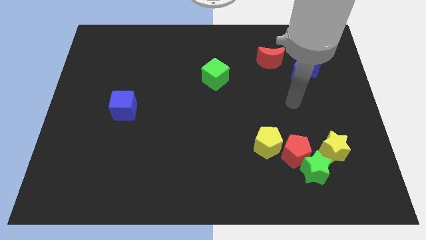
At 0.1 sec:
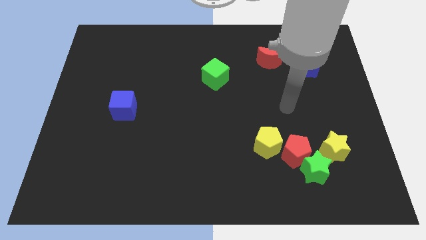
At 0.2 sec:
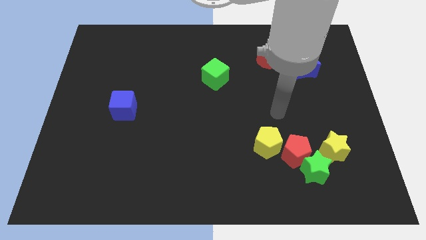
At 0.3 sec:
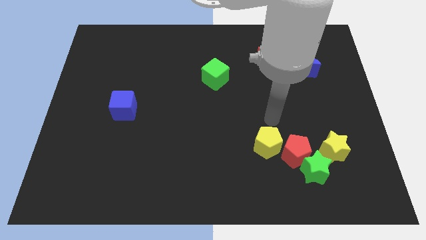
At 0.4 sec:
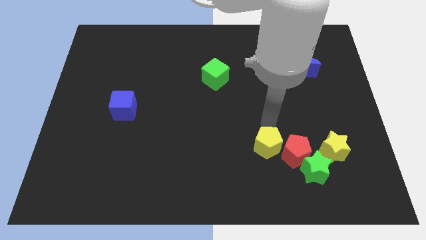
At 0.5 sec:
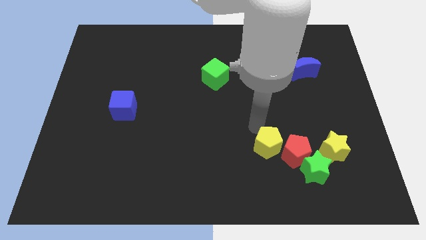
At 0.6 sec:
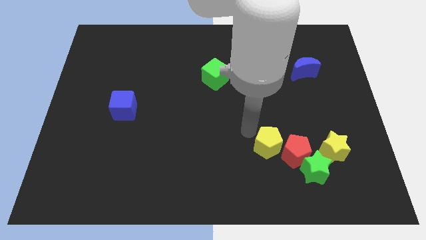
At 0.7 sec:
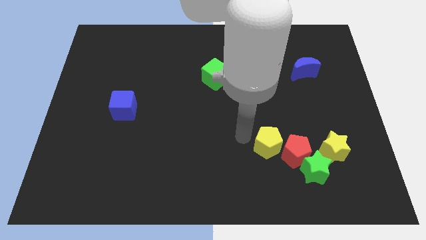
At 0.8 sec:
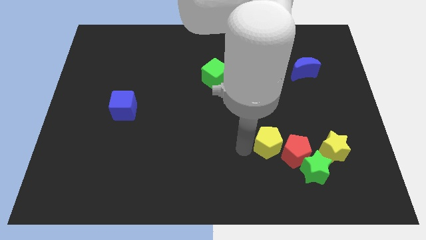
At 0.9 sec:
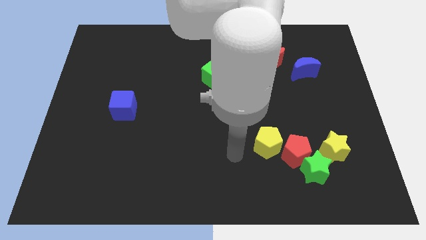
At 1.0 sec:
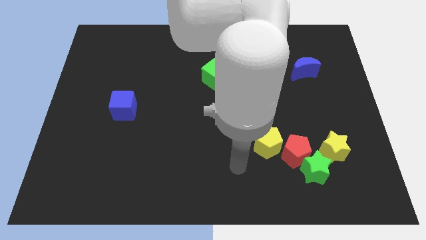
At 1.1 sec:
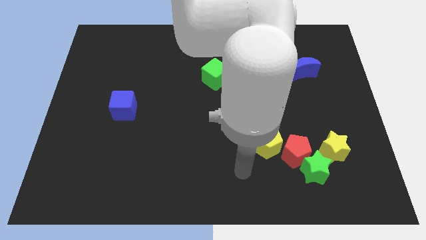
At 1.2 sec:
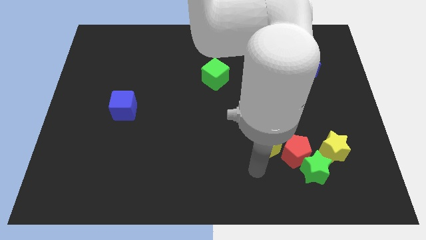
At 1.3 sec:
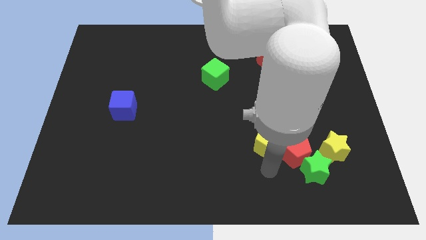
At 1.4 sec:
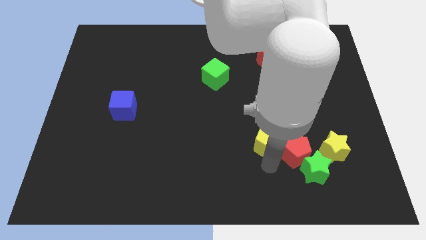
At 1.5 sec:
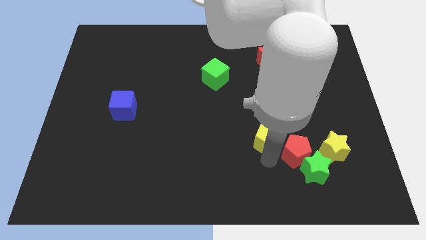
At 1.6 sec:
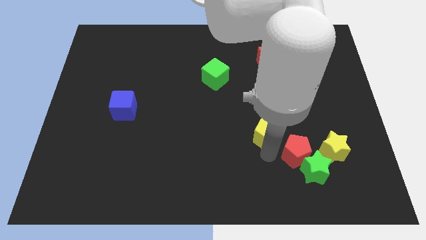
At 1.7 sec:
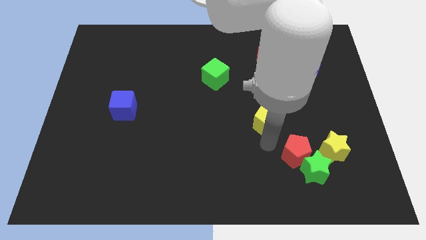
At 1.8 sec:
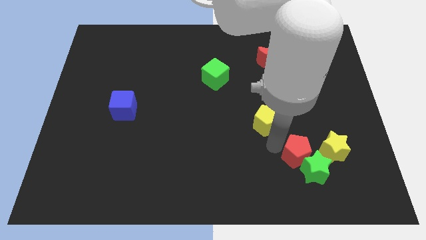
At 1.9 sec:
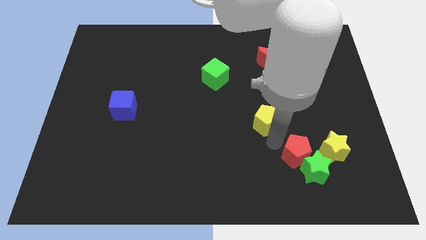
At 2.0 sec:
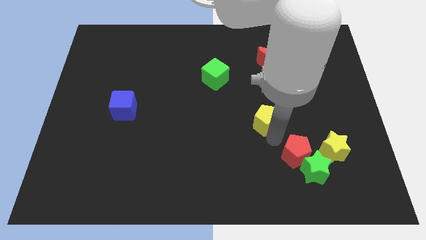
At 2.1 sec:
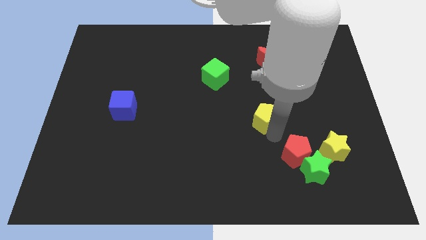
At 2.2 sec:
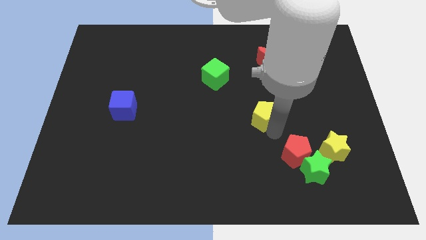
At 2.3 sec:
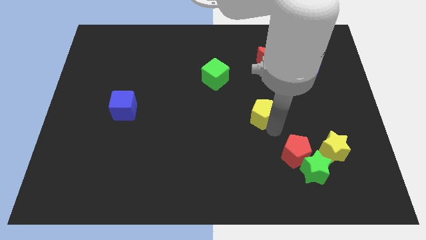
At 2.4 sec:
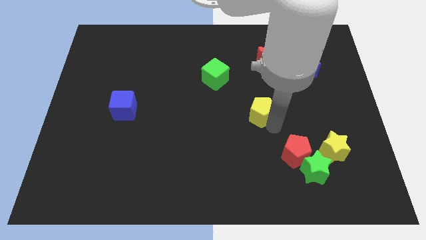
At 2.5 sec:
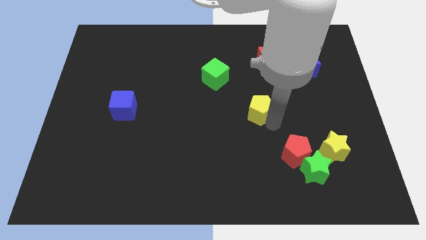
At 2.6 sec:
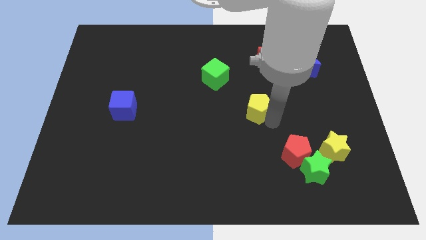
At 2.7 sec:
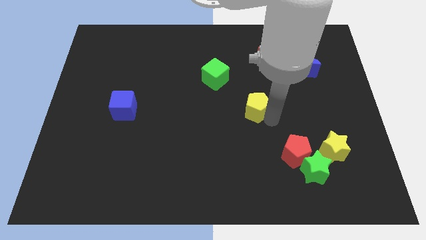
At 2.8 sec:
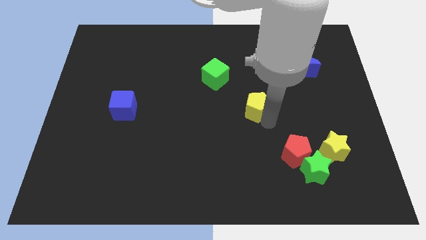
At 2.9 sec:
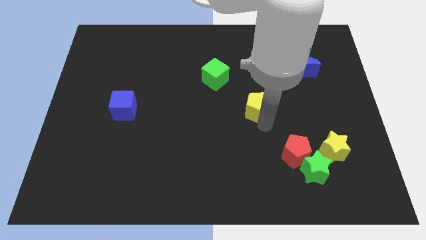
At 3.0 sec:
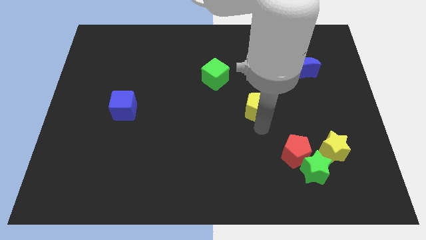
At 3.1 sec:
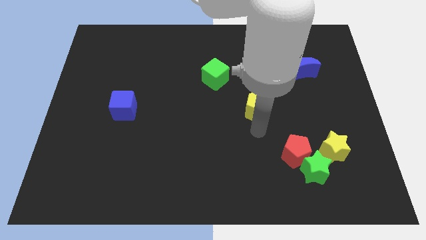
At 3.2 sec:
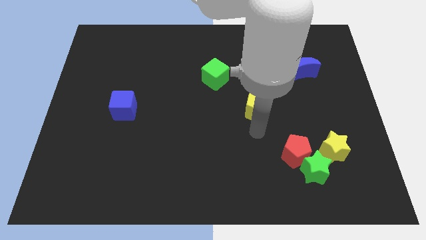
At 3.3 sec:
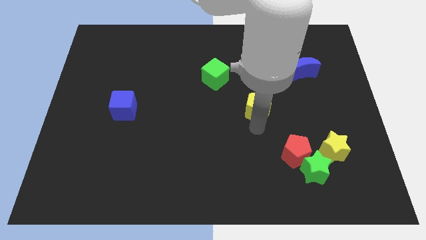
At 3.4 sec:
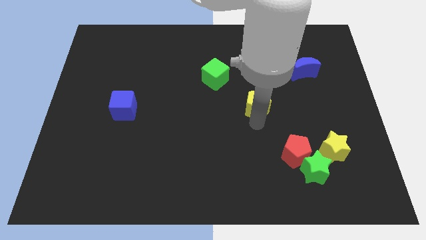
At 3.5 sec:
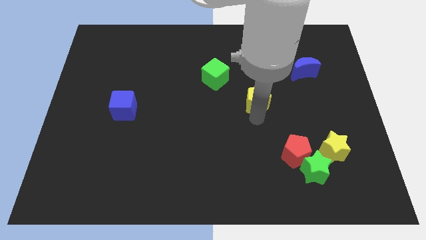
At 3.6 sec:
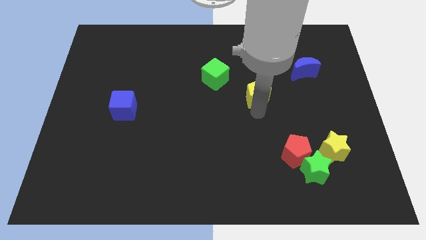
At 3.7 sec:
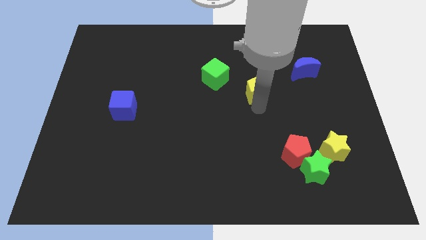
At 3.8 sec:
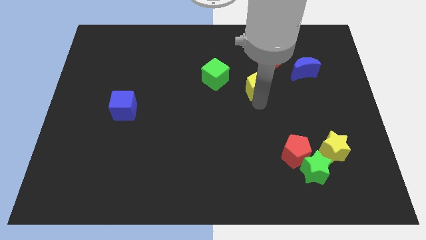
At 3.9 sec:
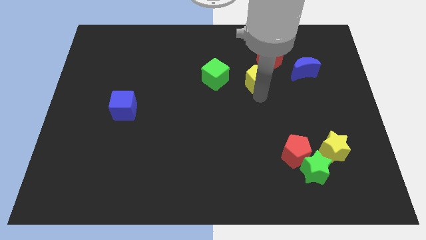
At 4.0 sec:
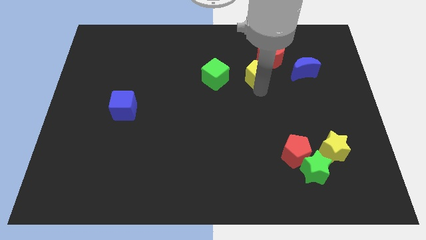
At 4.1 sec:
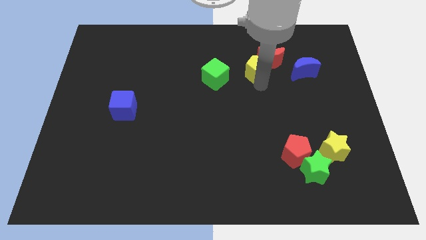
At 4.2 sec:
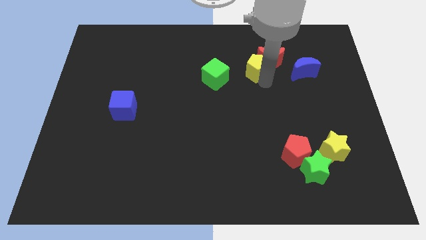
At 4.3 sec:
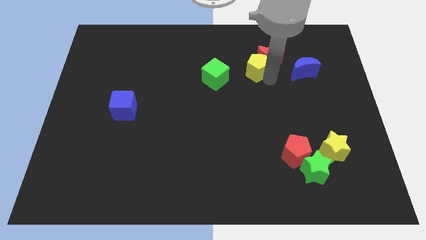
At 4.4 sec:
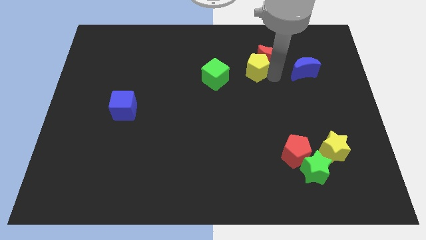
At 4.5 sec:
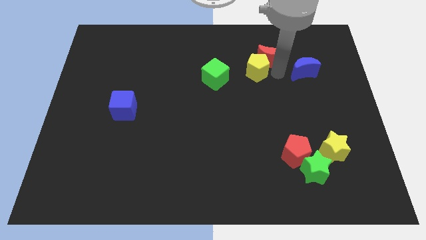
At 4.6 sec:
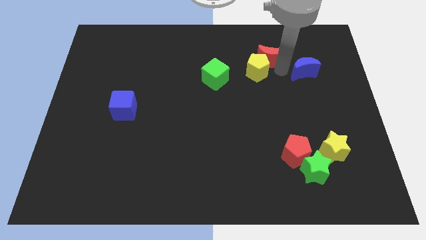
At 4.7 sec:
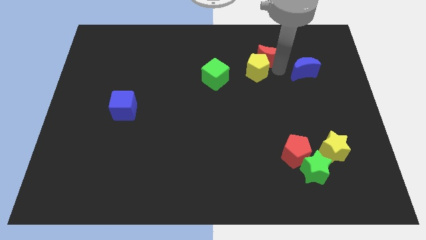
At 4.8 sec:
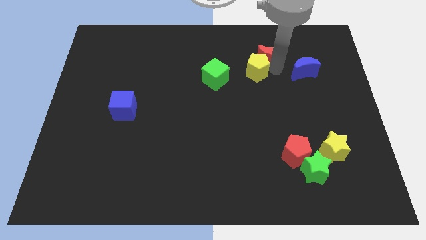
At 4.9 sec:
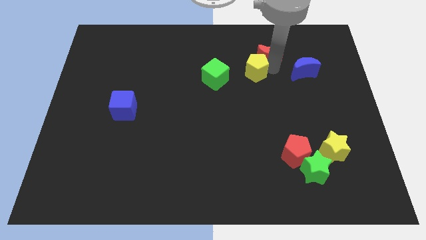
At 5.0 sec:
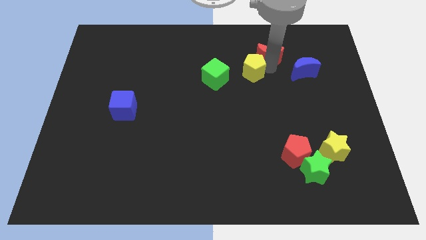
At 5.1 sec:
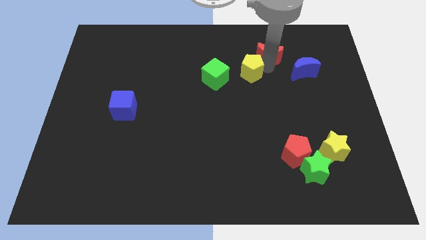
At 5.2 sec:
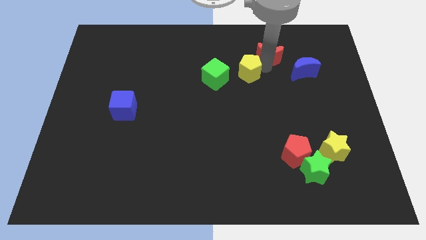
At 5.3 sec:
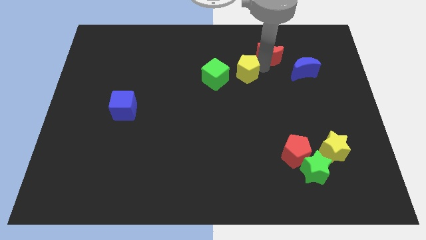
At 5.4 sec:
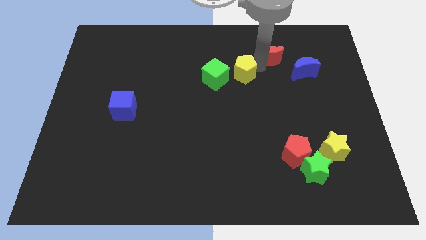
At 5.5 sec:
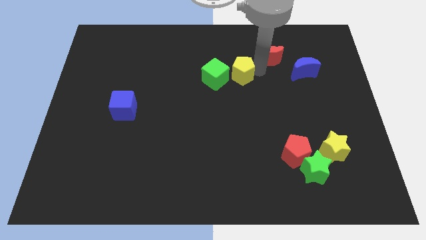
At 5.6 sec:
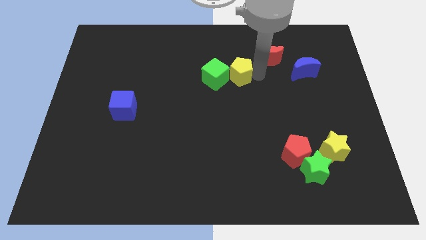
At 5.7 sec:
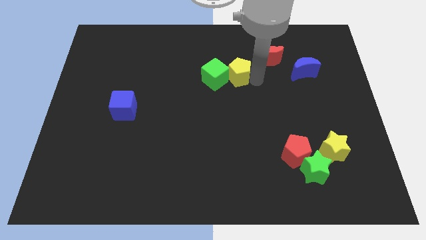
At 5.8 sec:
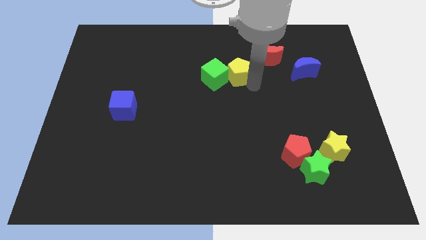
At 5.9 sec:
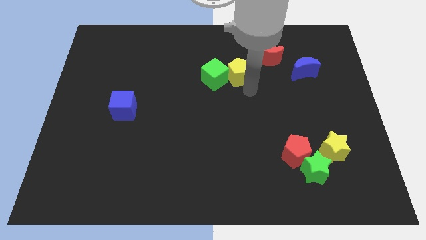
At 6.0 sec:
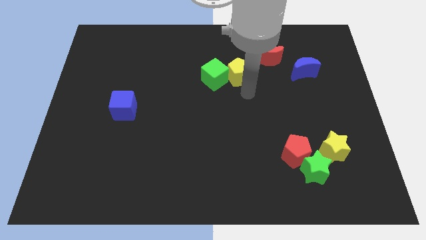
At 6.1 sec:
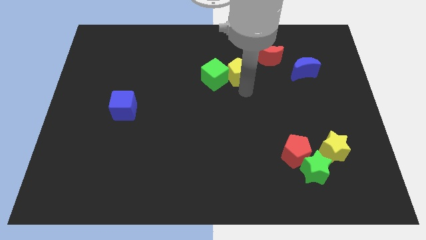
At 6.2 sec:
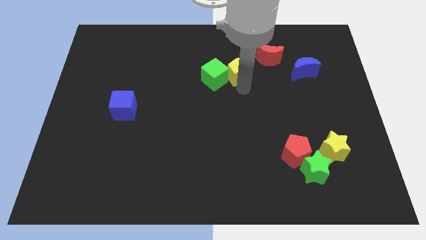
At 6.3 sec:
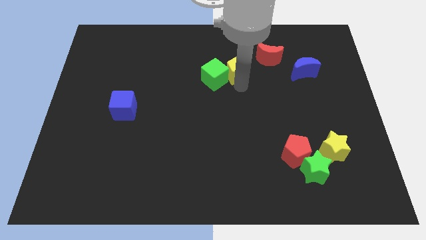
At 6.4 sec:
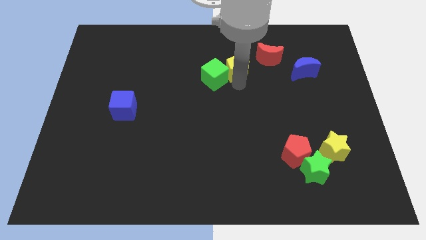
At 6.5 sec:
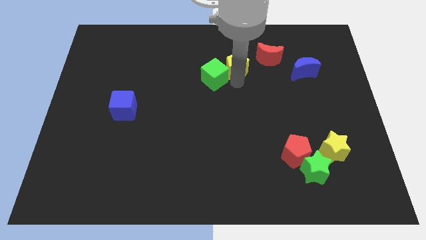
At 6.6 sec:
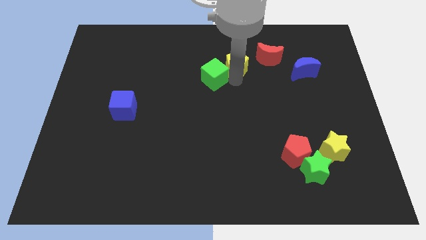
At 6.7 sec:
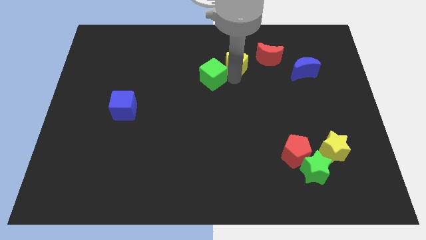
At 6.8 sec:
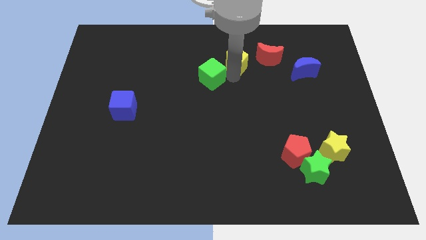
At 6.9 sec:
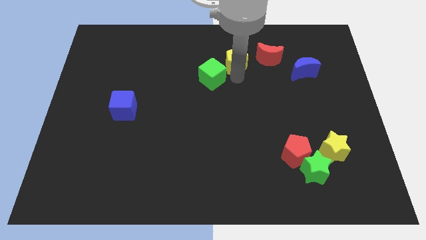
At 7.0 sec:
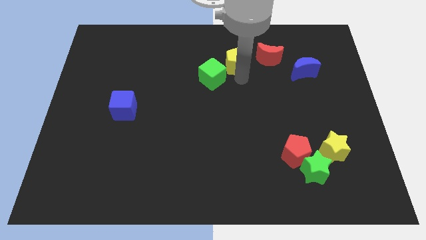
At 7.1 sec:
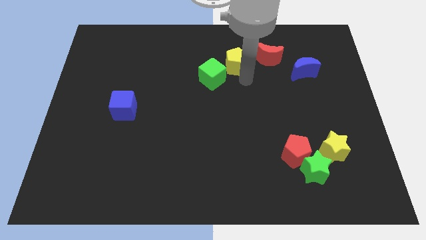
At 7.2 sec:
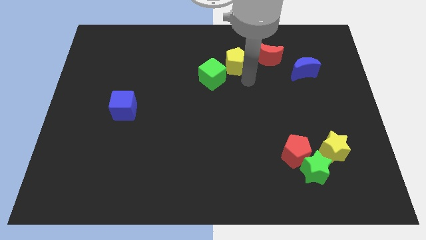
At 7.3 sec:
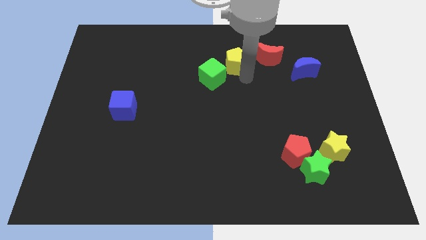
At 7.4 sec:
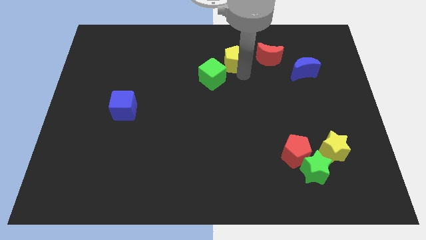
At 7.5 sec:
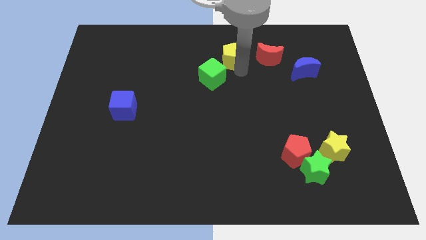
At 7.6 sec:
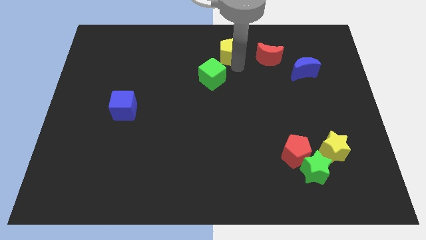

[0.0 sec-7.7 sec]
move the yellow pentagon to the towards your base
